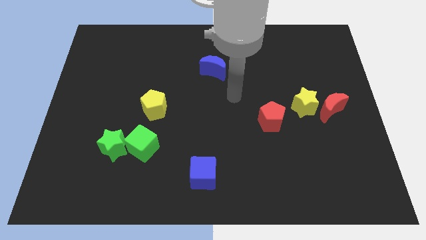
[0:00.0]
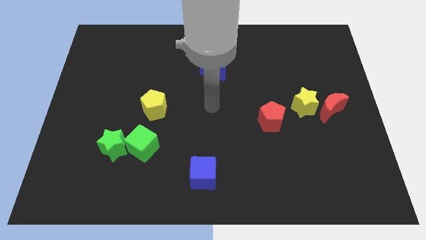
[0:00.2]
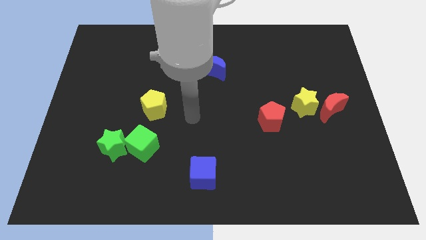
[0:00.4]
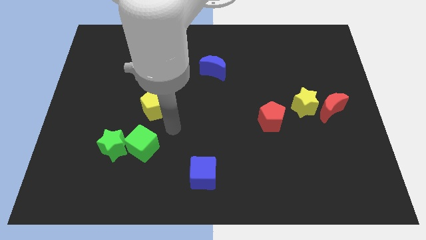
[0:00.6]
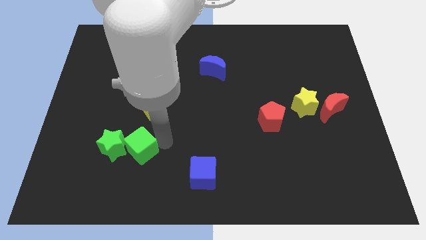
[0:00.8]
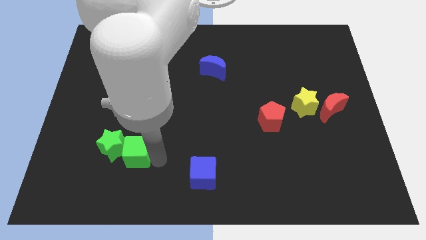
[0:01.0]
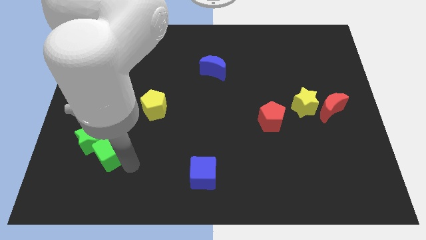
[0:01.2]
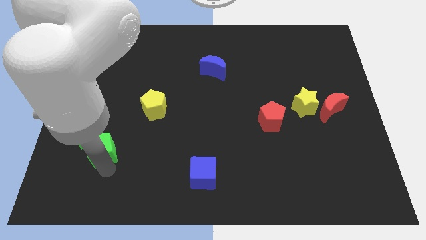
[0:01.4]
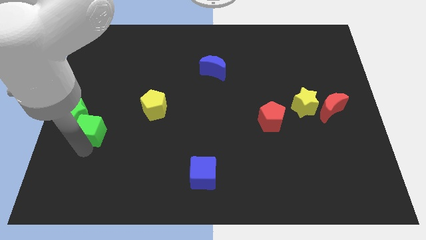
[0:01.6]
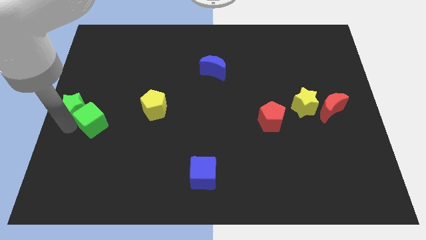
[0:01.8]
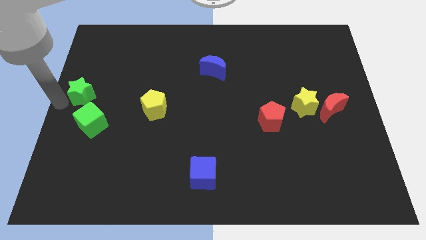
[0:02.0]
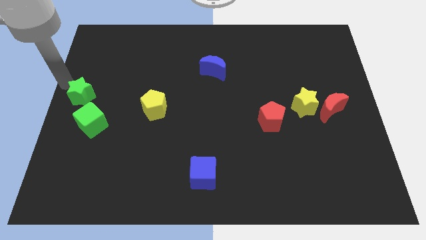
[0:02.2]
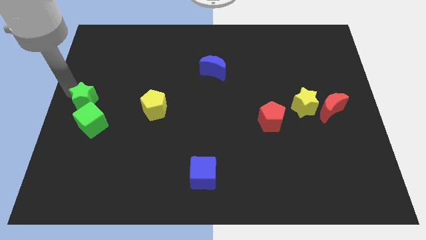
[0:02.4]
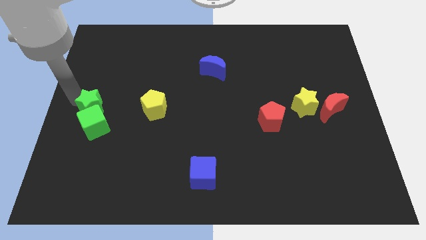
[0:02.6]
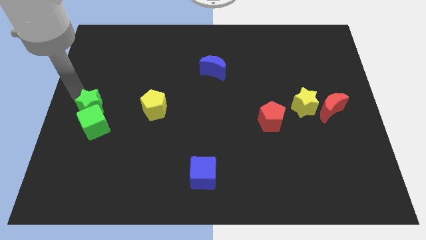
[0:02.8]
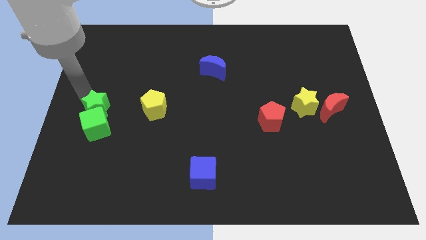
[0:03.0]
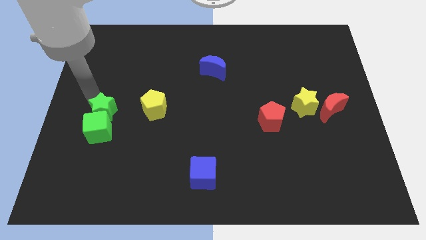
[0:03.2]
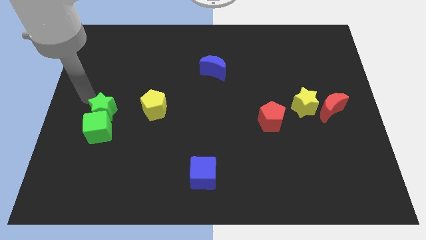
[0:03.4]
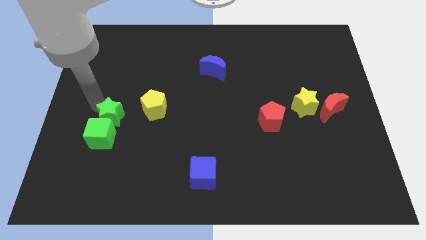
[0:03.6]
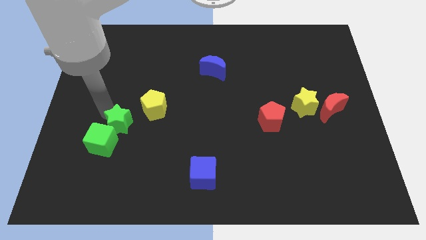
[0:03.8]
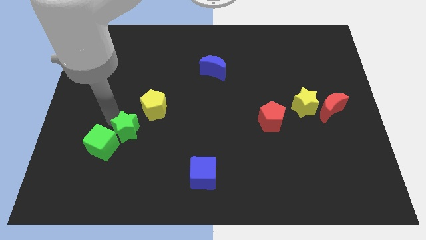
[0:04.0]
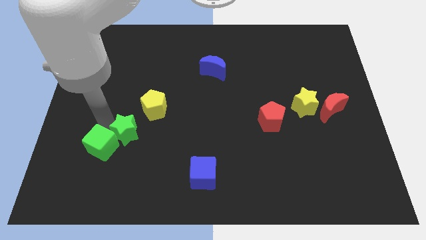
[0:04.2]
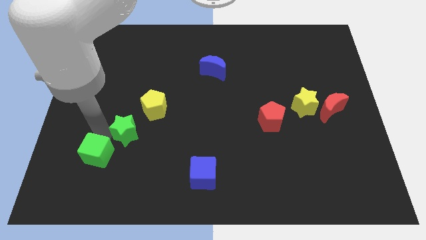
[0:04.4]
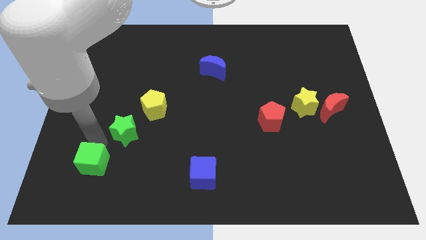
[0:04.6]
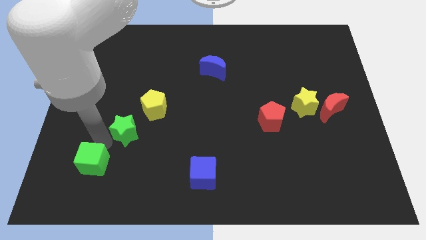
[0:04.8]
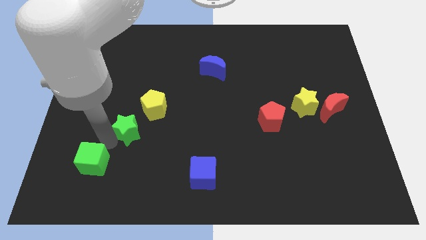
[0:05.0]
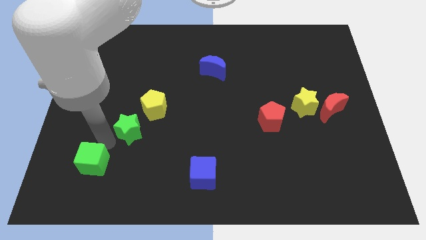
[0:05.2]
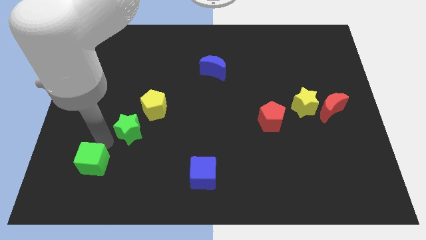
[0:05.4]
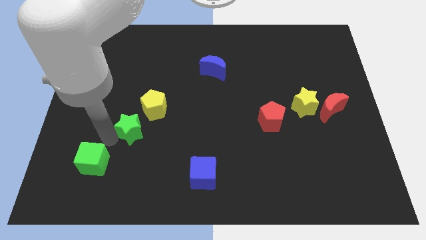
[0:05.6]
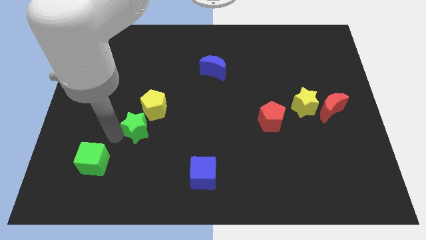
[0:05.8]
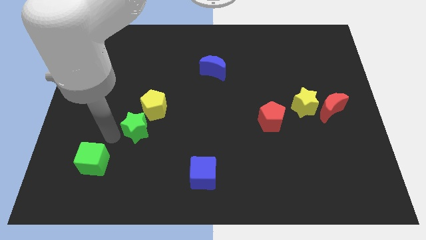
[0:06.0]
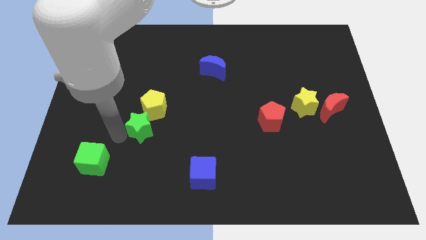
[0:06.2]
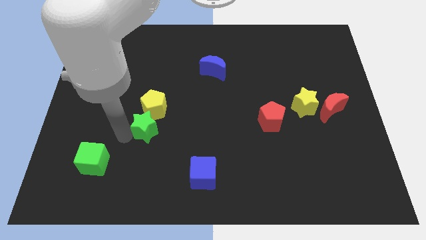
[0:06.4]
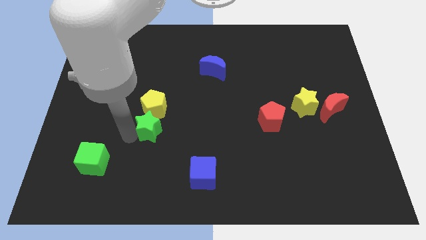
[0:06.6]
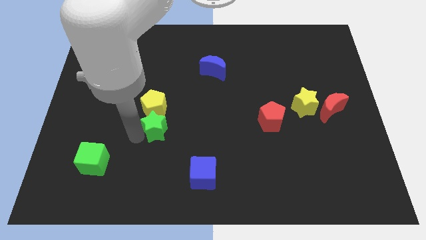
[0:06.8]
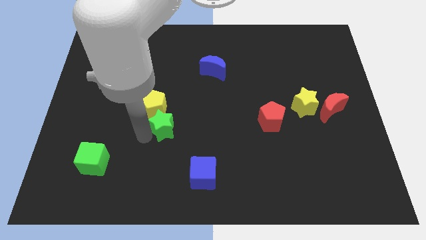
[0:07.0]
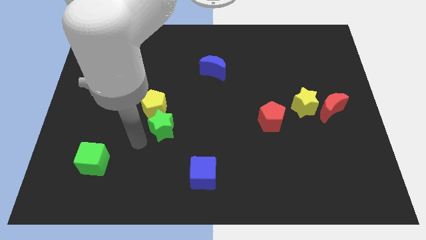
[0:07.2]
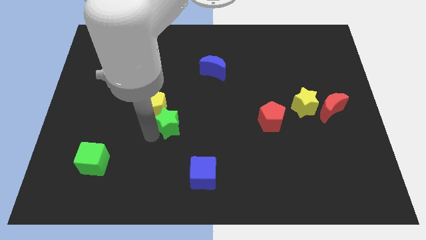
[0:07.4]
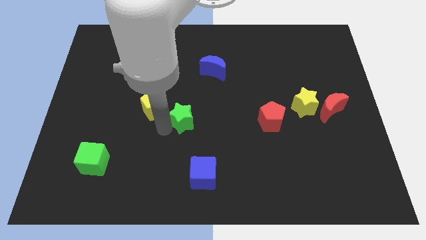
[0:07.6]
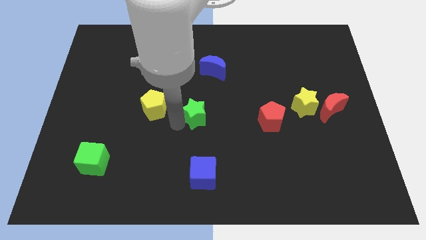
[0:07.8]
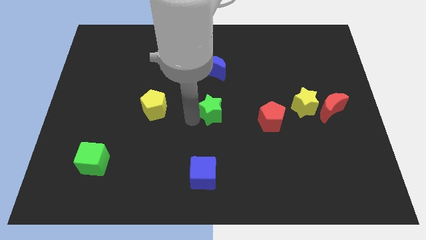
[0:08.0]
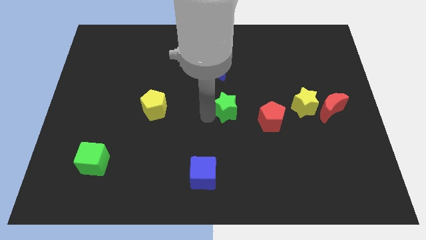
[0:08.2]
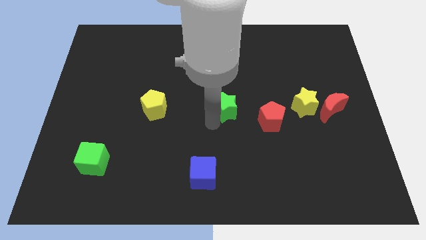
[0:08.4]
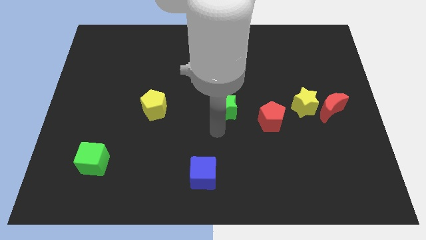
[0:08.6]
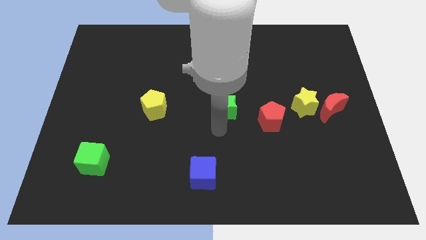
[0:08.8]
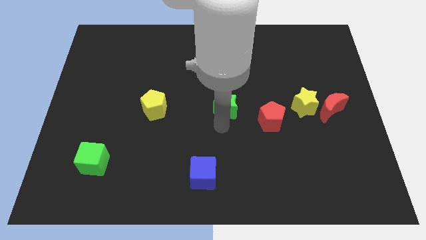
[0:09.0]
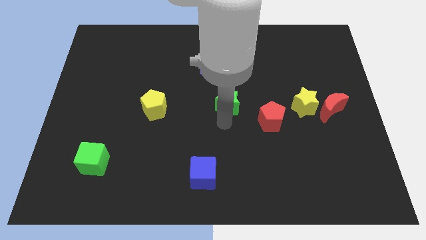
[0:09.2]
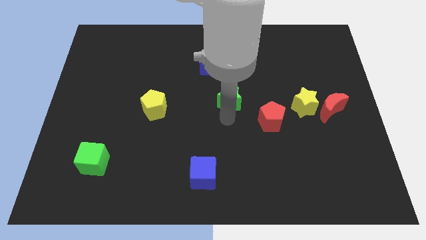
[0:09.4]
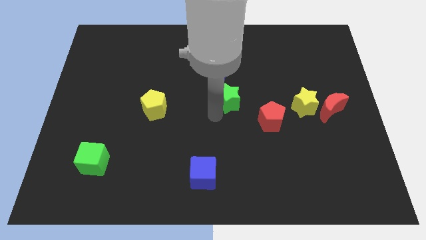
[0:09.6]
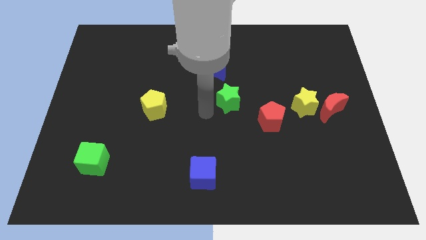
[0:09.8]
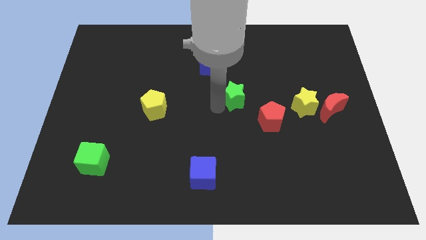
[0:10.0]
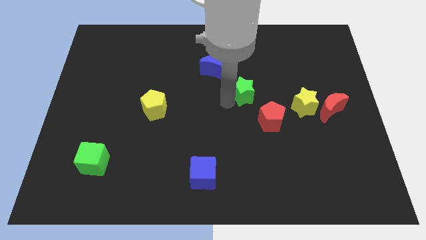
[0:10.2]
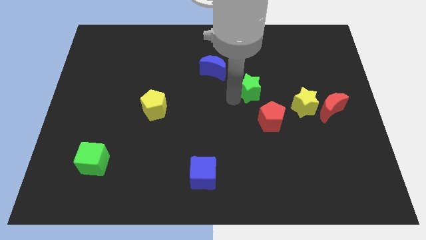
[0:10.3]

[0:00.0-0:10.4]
slide the green star above the red pentagon

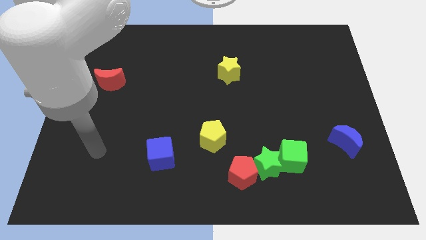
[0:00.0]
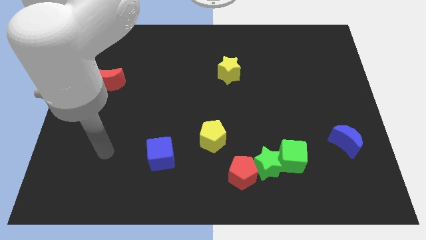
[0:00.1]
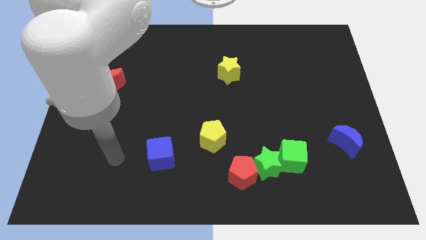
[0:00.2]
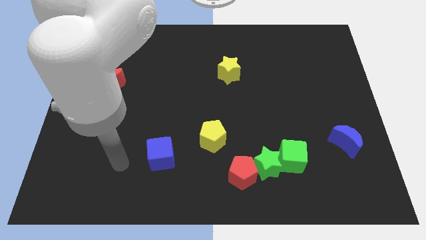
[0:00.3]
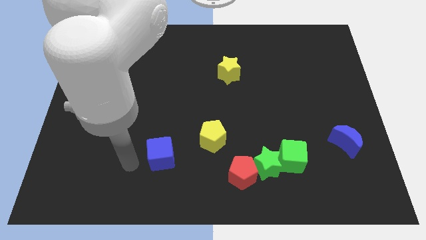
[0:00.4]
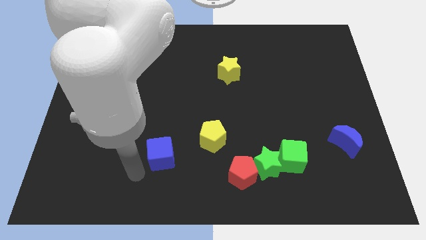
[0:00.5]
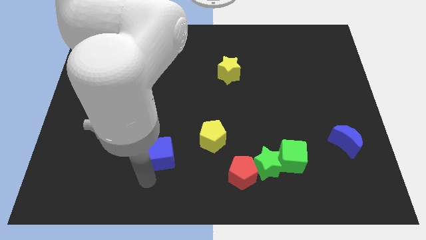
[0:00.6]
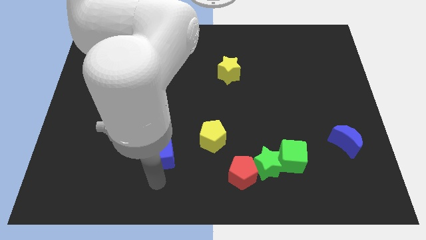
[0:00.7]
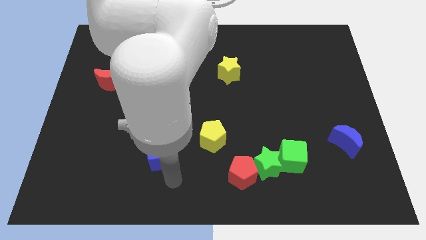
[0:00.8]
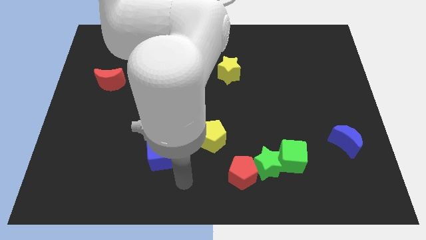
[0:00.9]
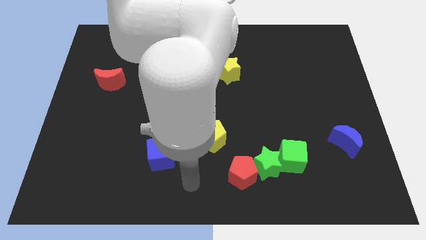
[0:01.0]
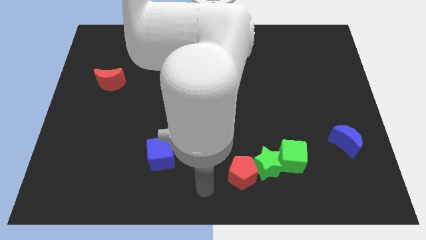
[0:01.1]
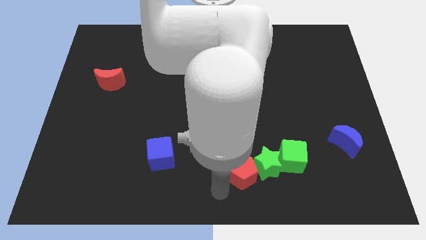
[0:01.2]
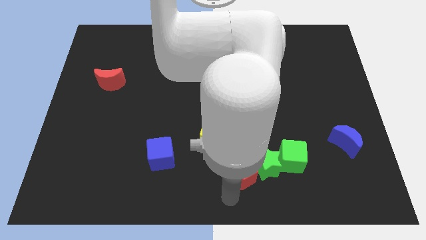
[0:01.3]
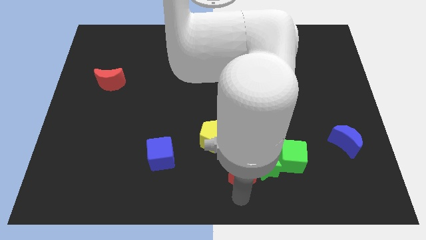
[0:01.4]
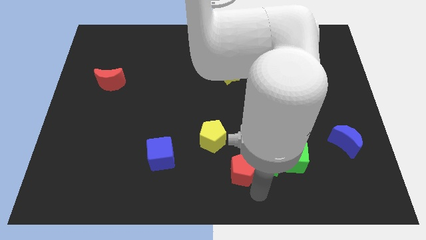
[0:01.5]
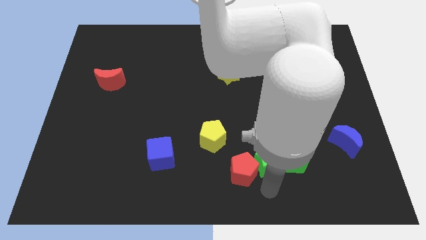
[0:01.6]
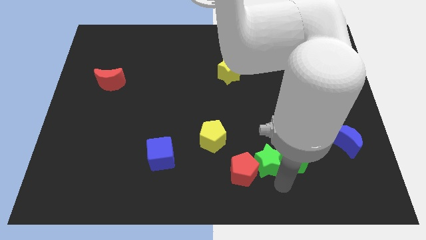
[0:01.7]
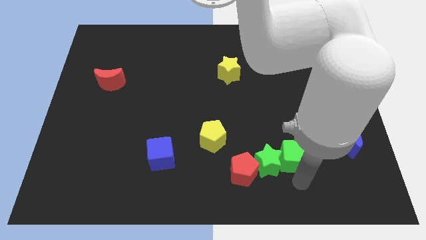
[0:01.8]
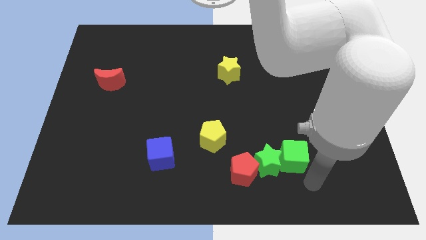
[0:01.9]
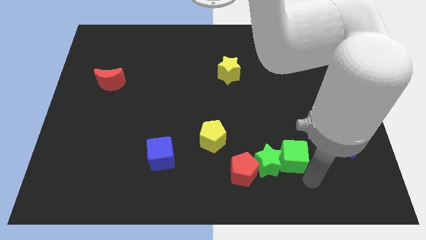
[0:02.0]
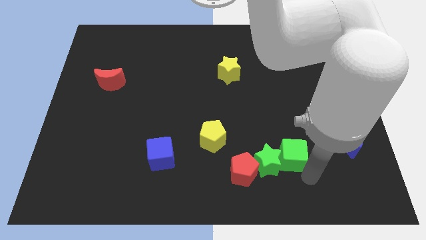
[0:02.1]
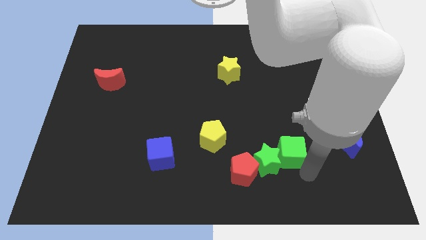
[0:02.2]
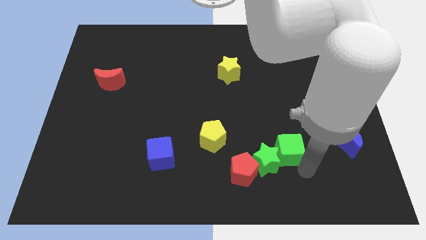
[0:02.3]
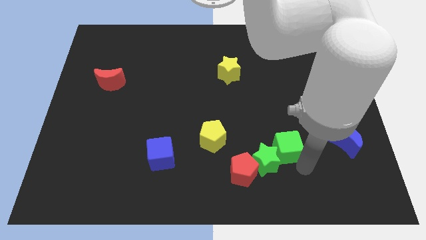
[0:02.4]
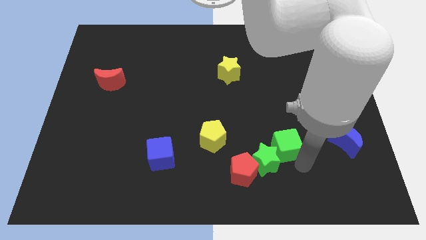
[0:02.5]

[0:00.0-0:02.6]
put the green cube above the green star

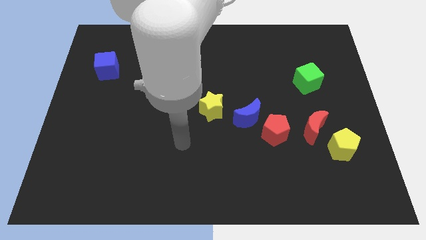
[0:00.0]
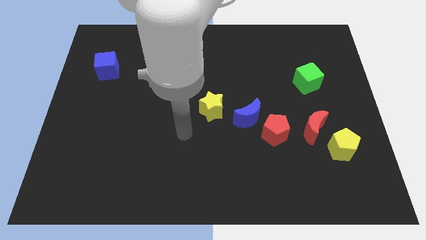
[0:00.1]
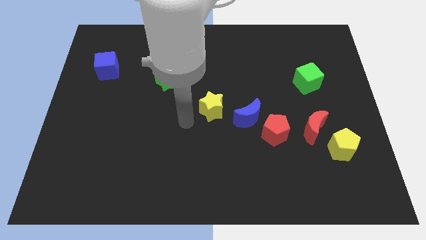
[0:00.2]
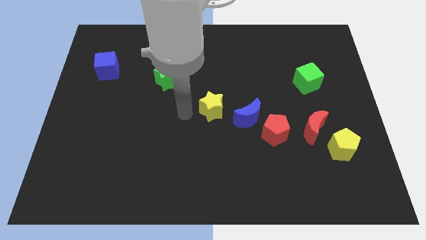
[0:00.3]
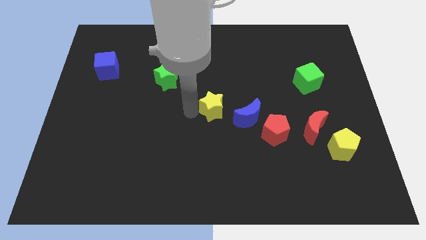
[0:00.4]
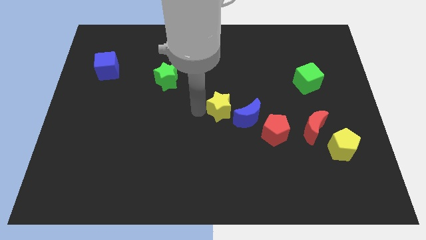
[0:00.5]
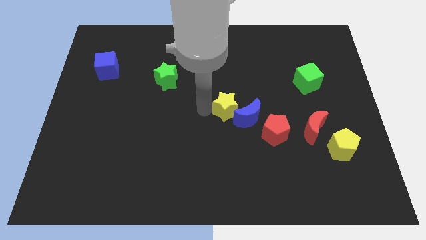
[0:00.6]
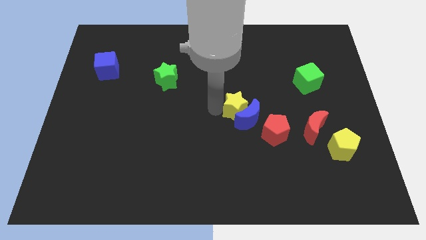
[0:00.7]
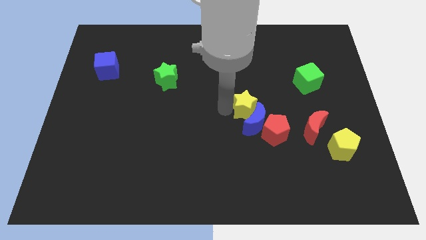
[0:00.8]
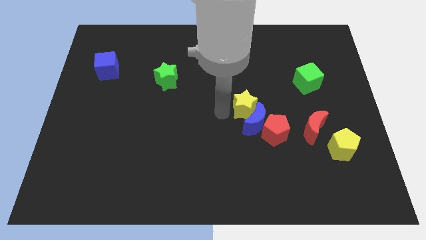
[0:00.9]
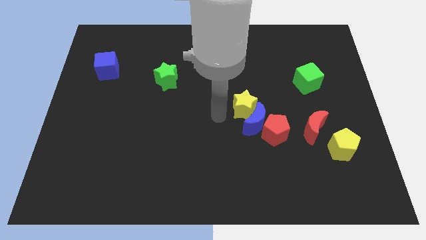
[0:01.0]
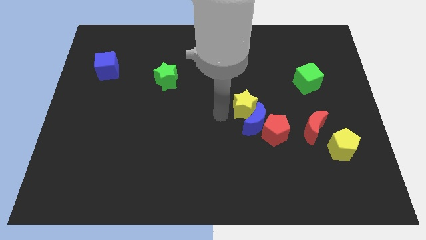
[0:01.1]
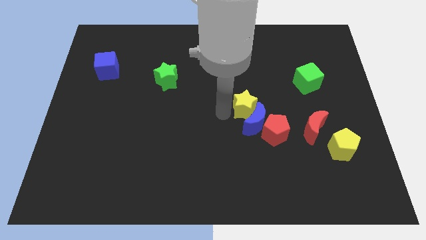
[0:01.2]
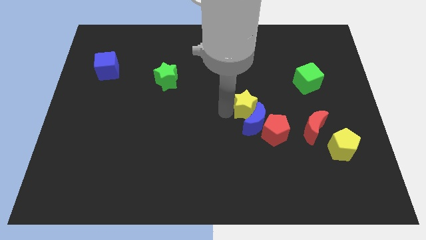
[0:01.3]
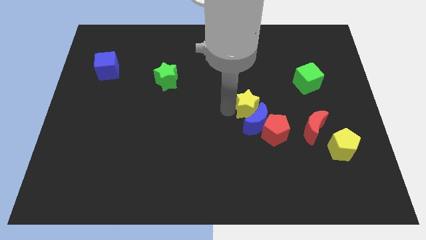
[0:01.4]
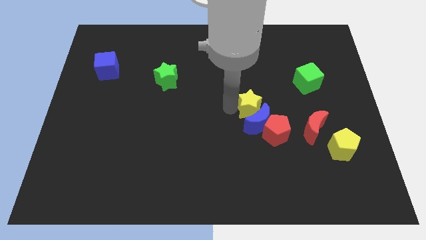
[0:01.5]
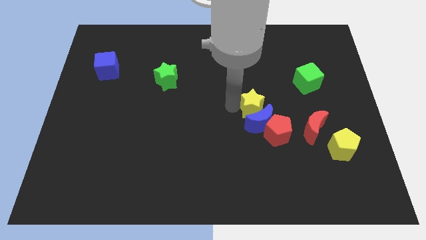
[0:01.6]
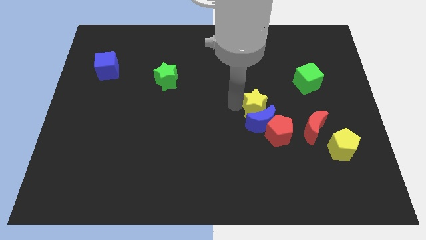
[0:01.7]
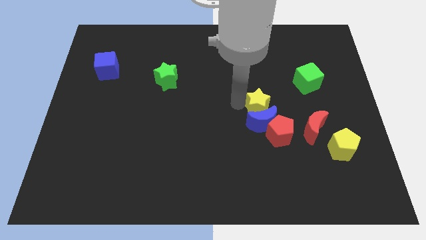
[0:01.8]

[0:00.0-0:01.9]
push the yellow star to the top side of the red pentagon
